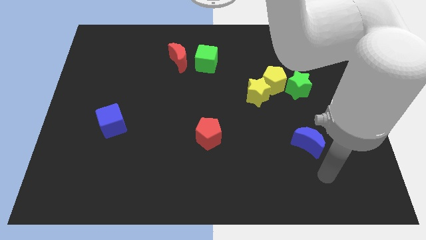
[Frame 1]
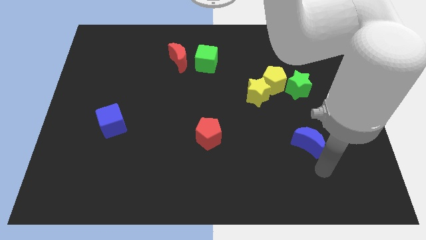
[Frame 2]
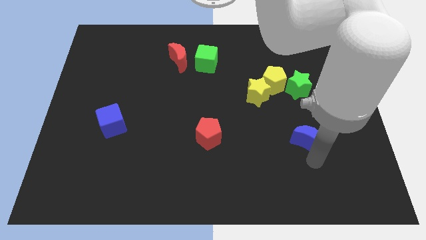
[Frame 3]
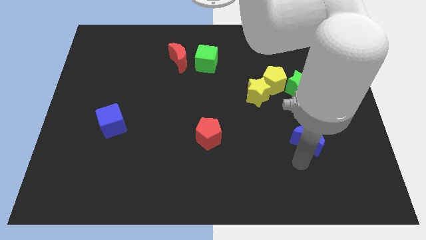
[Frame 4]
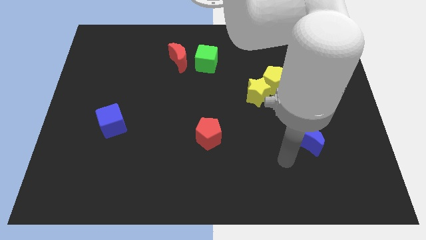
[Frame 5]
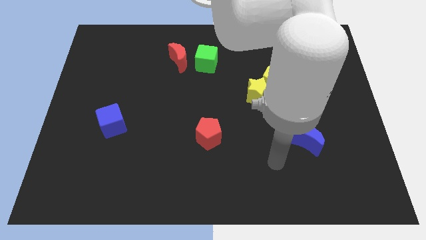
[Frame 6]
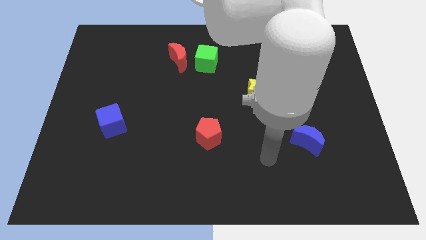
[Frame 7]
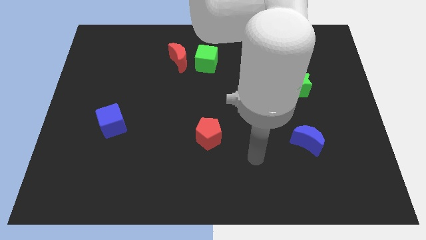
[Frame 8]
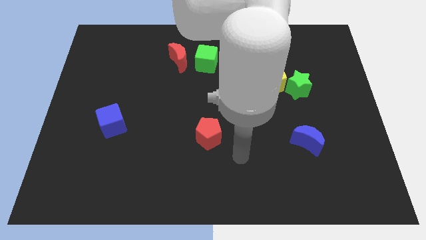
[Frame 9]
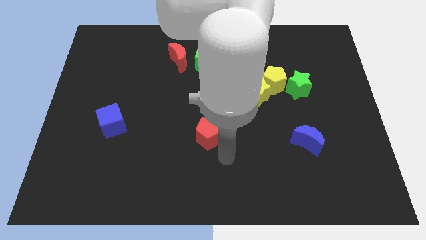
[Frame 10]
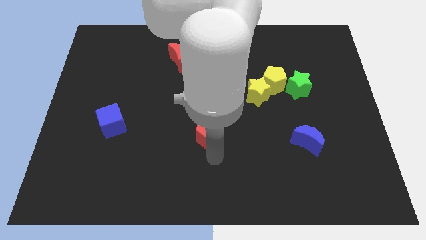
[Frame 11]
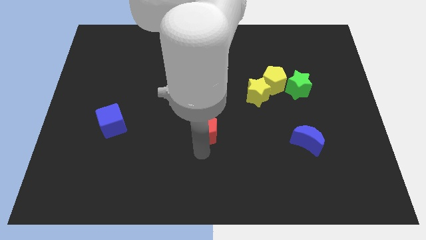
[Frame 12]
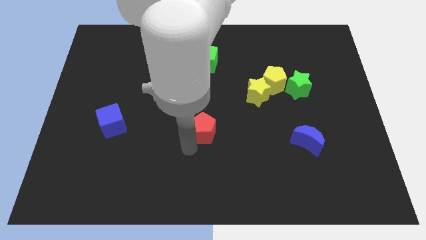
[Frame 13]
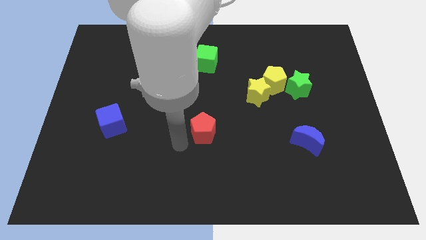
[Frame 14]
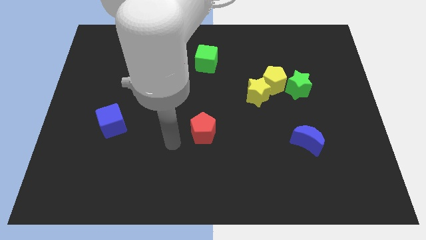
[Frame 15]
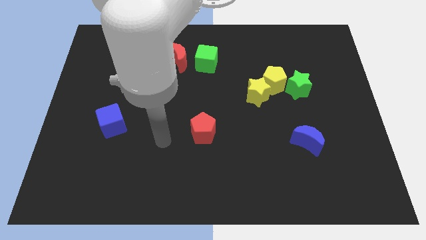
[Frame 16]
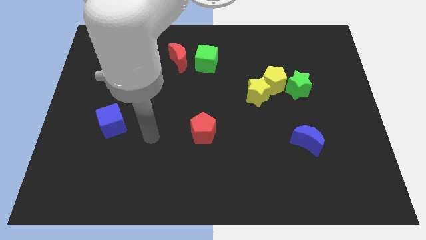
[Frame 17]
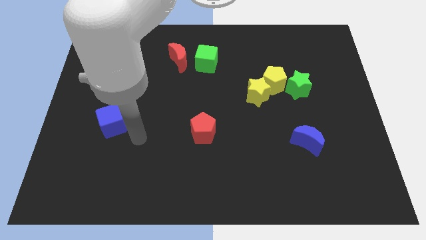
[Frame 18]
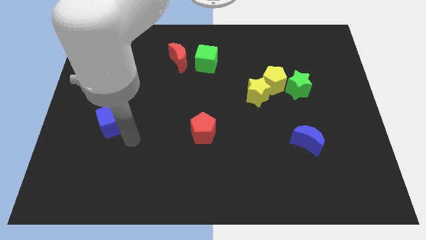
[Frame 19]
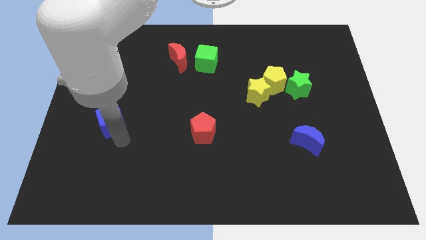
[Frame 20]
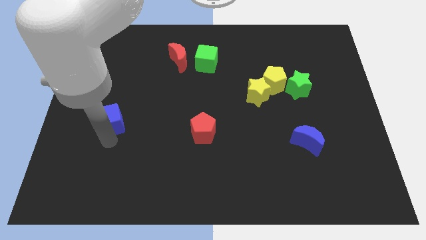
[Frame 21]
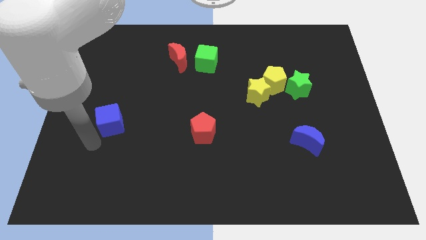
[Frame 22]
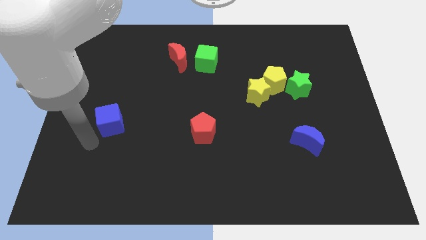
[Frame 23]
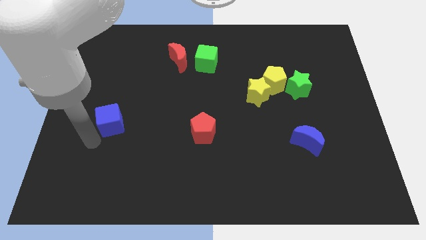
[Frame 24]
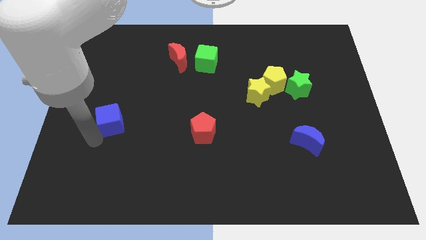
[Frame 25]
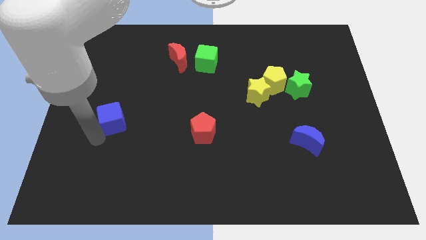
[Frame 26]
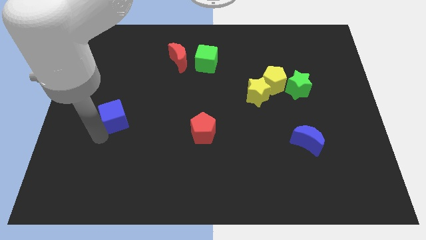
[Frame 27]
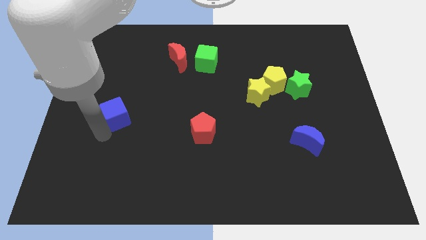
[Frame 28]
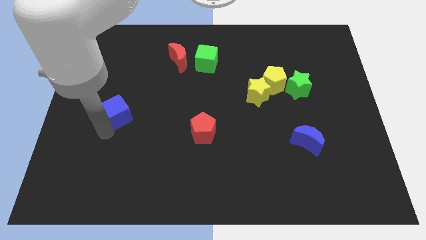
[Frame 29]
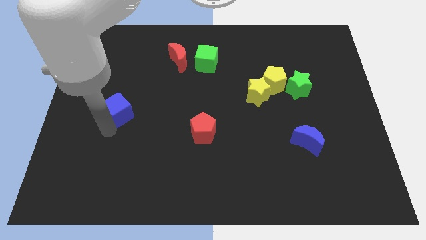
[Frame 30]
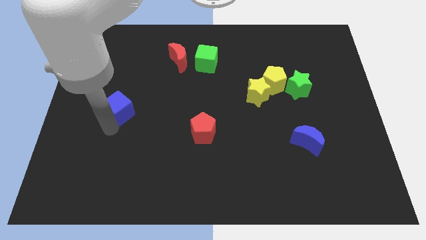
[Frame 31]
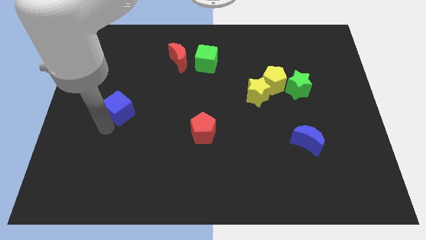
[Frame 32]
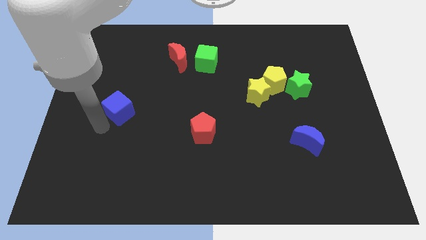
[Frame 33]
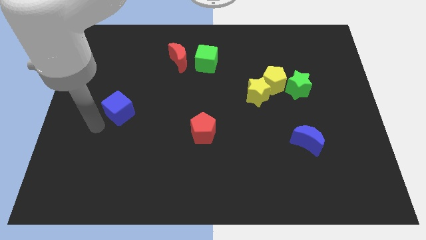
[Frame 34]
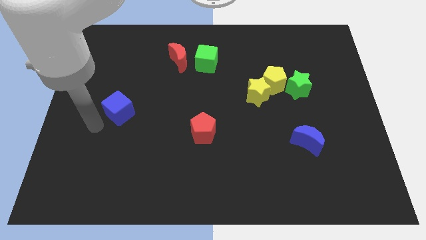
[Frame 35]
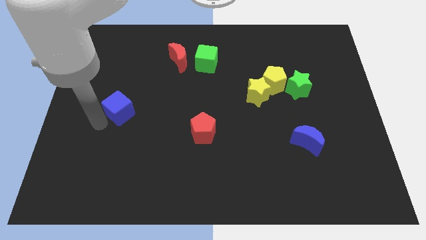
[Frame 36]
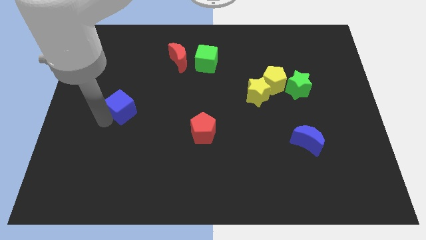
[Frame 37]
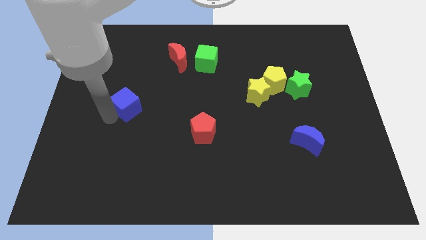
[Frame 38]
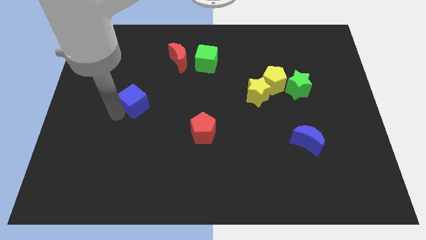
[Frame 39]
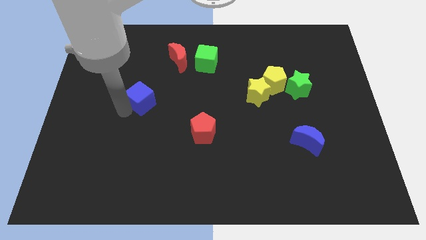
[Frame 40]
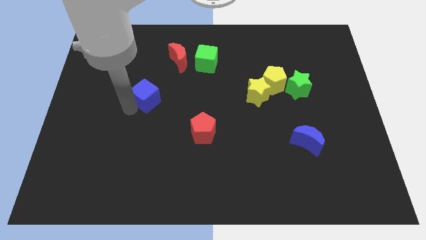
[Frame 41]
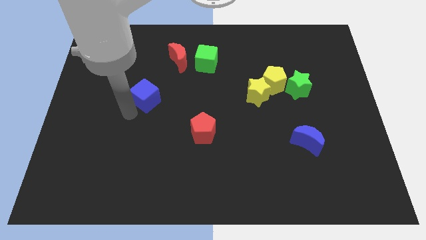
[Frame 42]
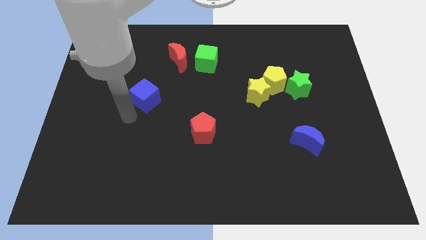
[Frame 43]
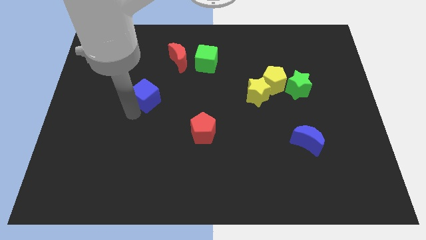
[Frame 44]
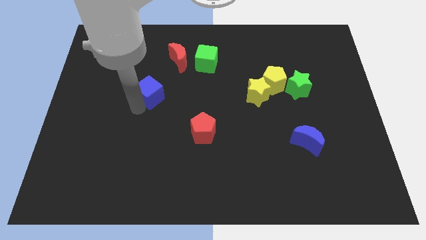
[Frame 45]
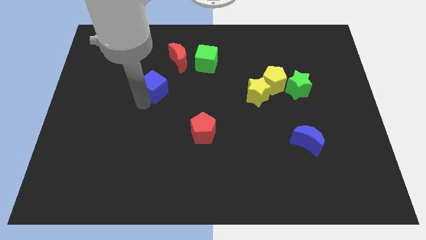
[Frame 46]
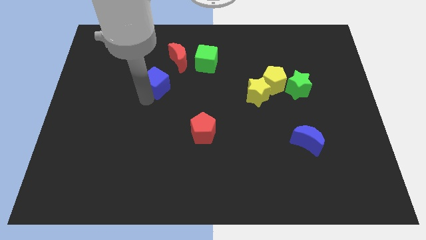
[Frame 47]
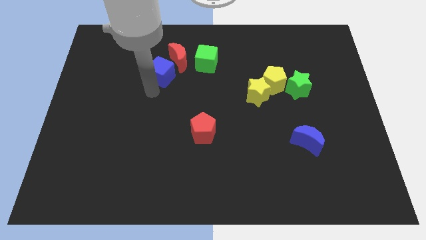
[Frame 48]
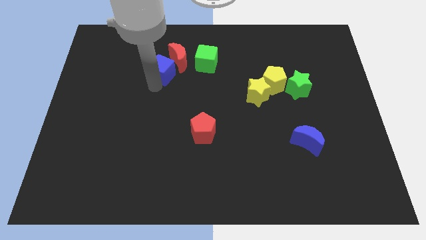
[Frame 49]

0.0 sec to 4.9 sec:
slide the blue cube to the red moon

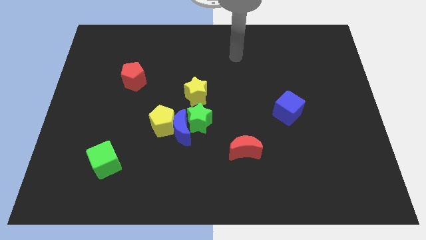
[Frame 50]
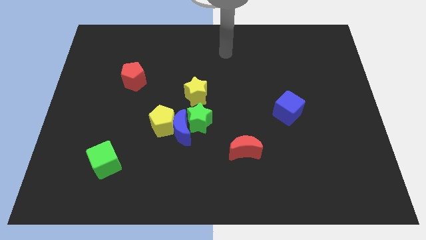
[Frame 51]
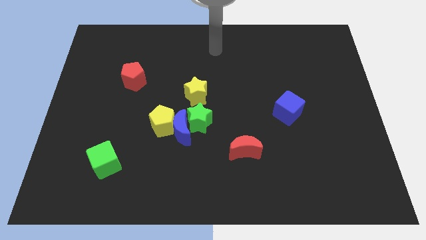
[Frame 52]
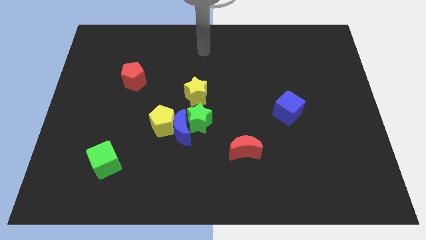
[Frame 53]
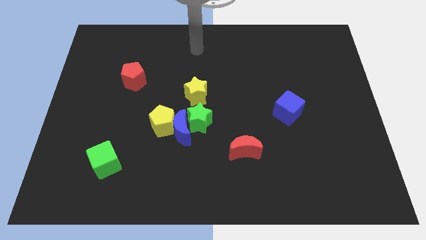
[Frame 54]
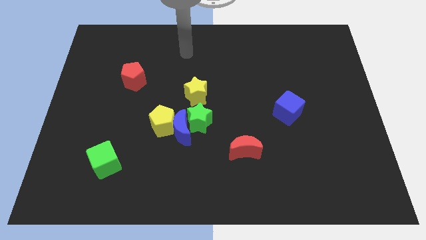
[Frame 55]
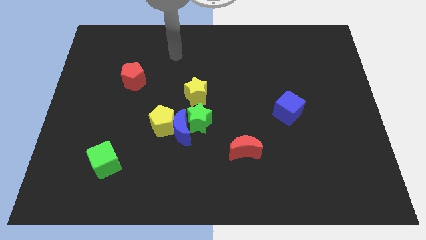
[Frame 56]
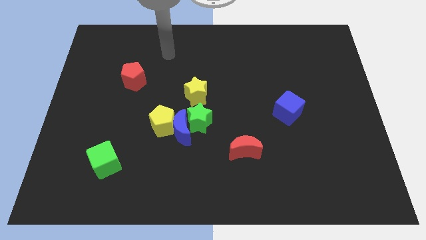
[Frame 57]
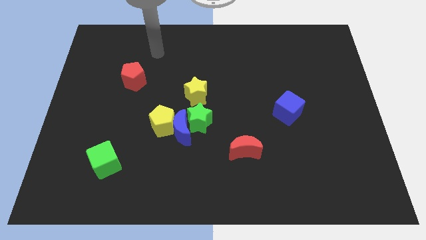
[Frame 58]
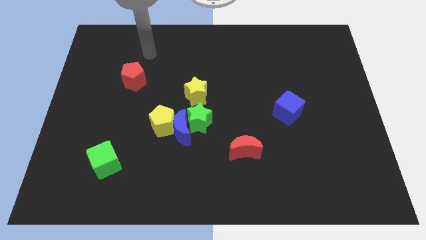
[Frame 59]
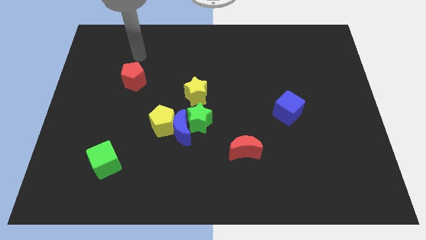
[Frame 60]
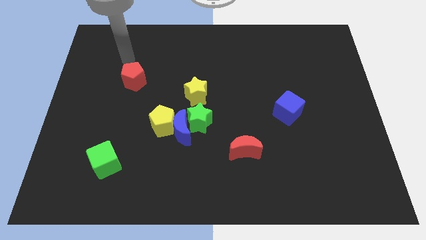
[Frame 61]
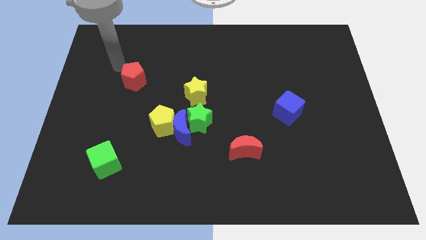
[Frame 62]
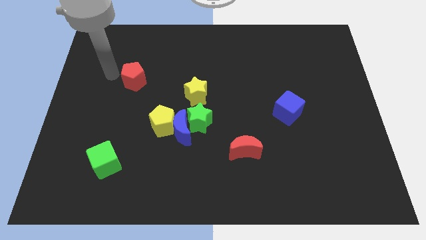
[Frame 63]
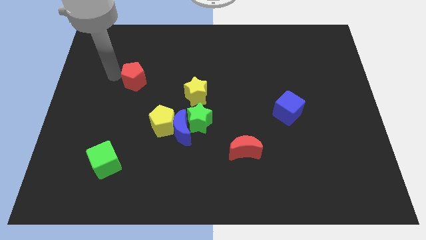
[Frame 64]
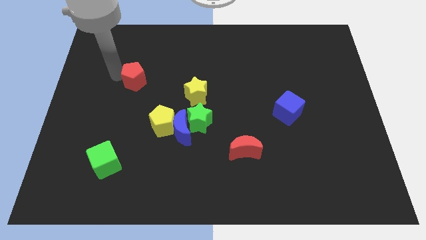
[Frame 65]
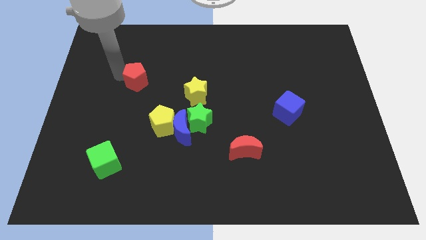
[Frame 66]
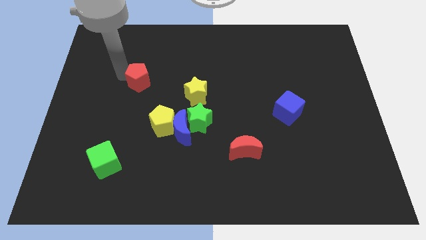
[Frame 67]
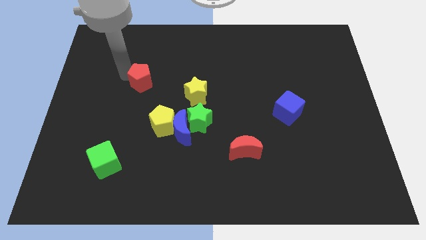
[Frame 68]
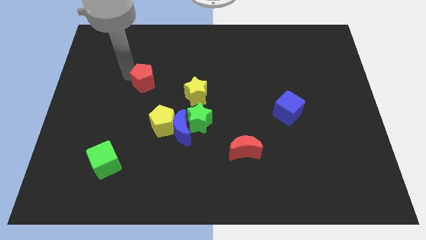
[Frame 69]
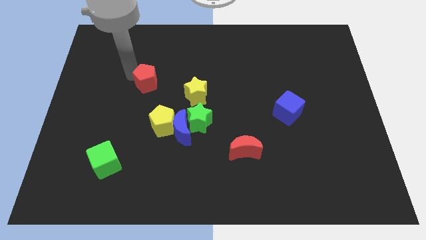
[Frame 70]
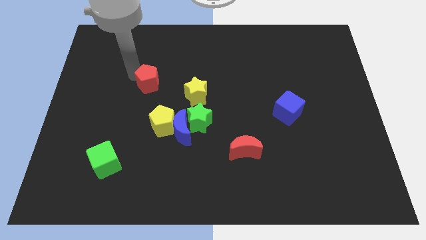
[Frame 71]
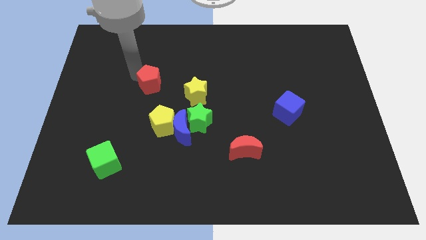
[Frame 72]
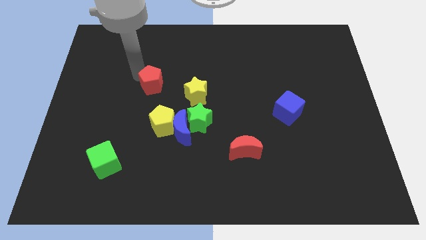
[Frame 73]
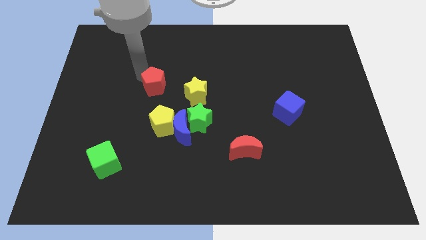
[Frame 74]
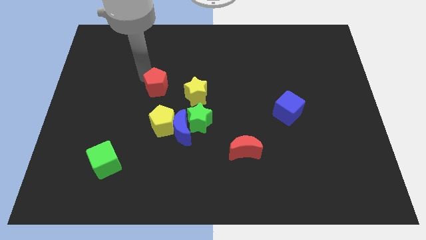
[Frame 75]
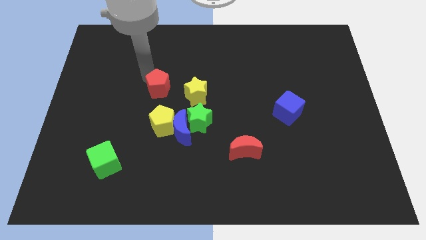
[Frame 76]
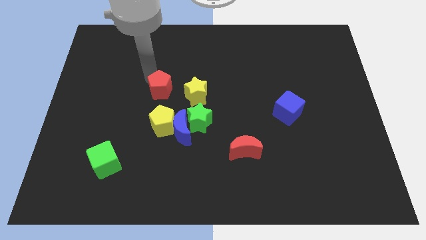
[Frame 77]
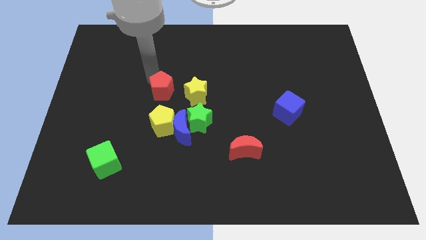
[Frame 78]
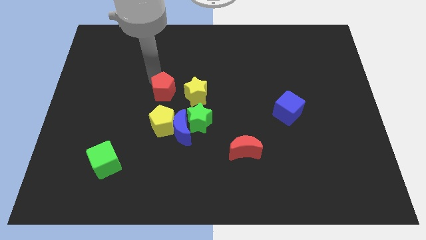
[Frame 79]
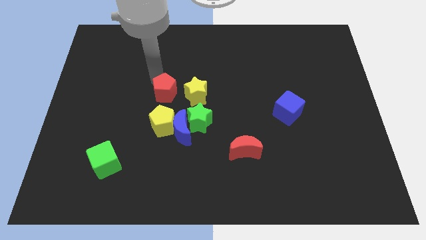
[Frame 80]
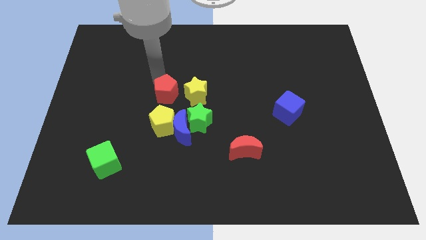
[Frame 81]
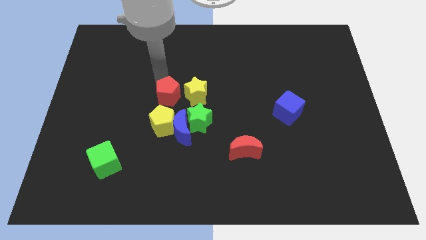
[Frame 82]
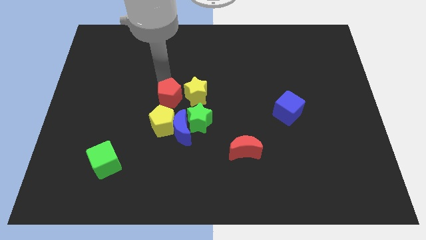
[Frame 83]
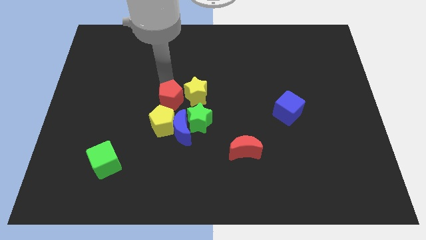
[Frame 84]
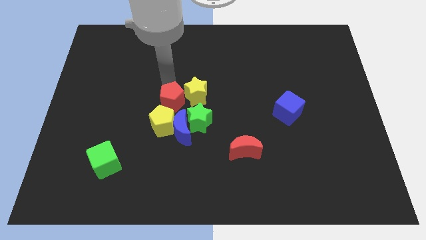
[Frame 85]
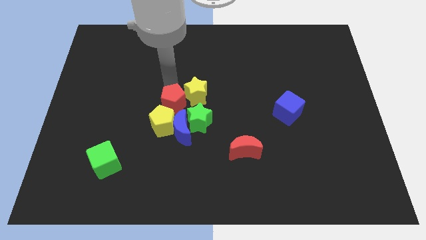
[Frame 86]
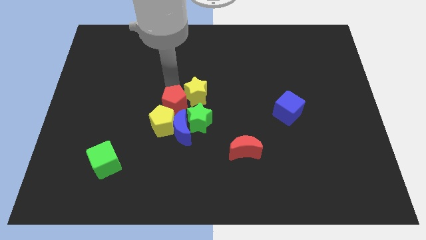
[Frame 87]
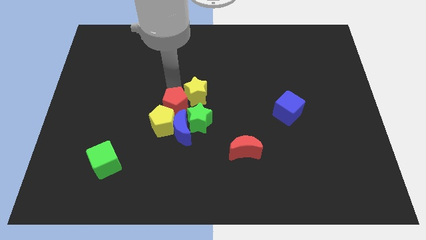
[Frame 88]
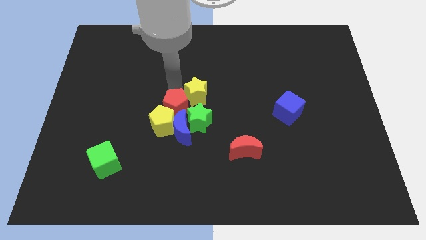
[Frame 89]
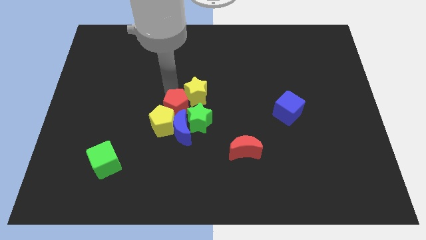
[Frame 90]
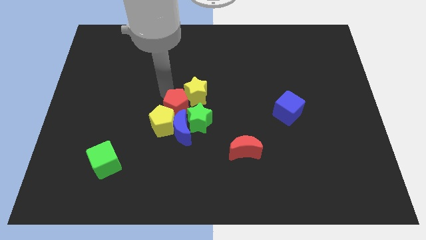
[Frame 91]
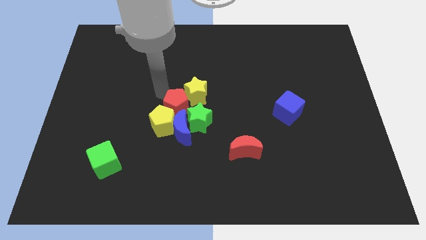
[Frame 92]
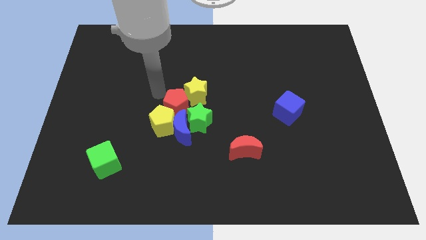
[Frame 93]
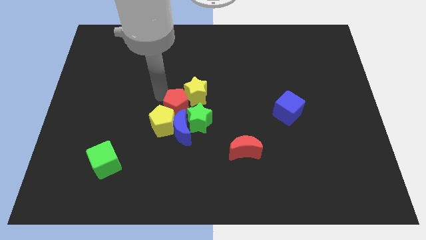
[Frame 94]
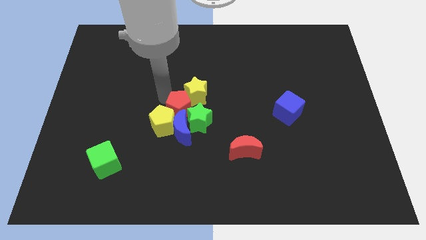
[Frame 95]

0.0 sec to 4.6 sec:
push the red pentagon towards the green star
